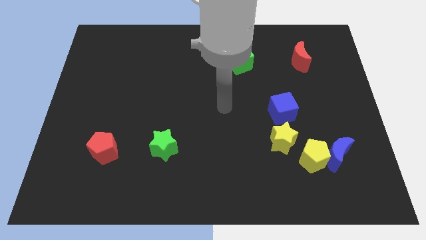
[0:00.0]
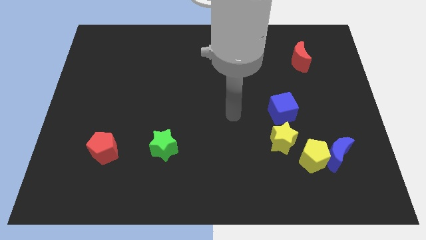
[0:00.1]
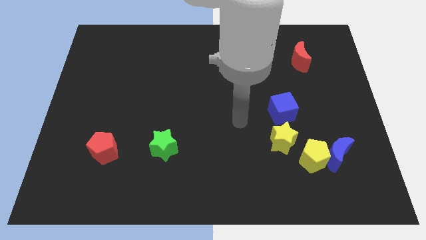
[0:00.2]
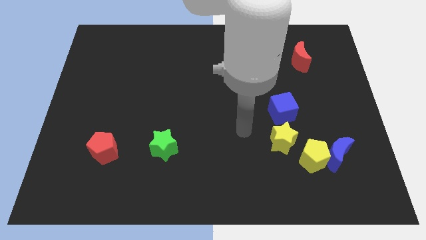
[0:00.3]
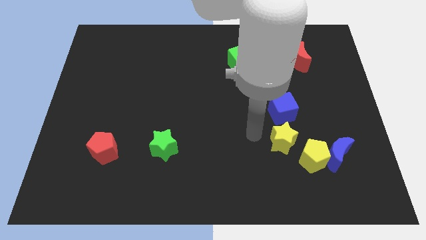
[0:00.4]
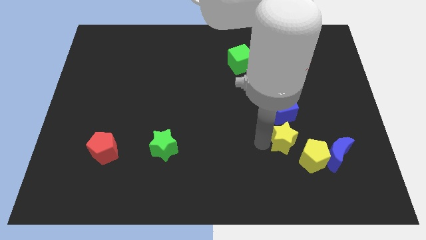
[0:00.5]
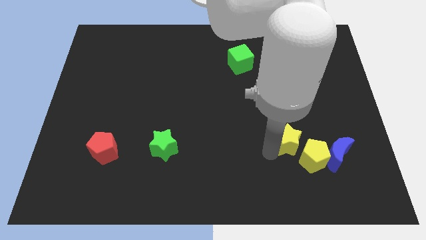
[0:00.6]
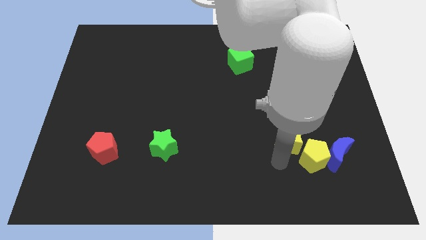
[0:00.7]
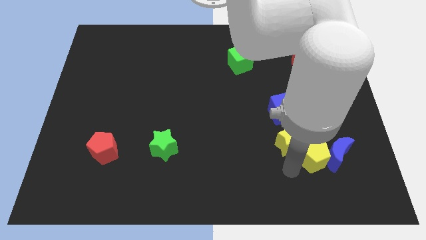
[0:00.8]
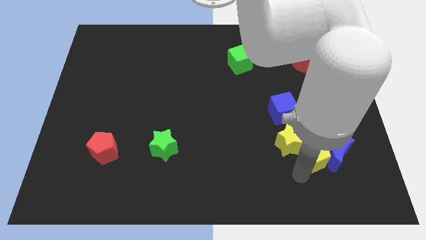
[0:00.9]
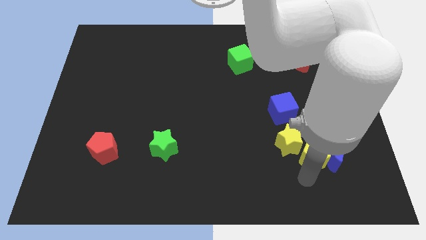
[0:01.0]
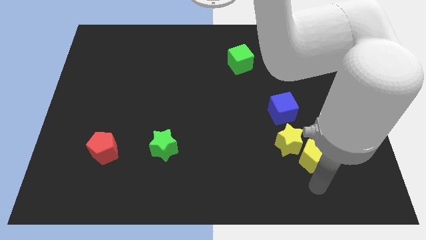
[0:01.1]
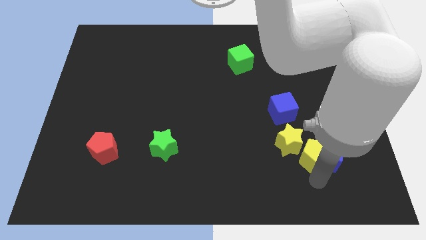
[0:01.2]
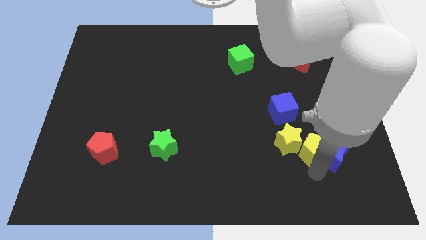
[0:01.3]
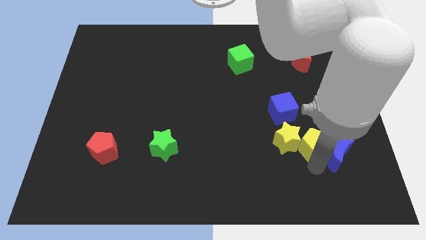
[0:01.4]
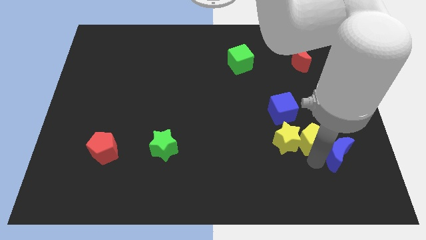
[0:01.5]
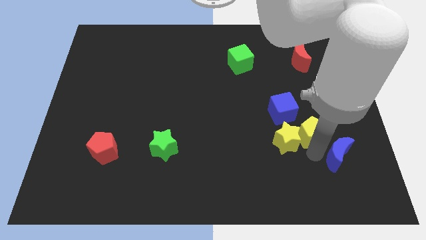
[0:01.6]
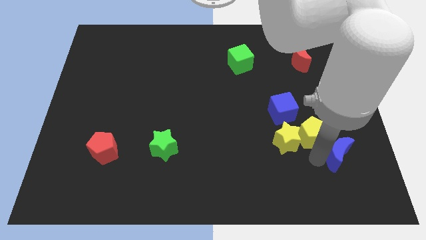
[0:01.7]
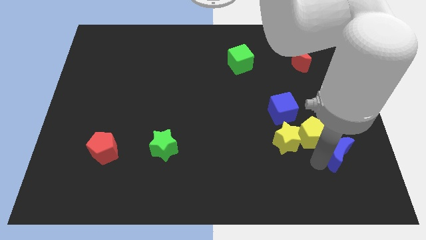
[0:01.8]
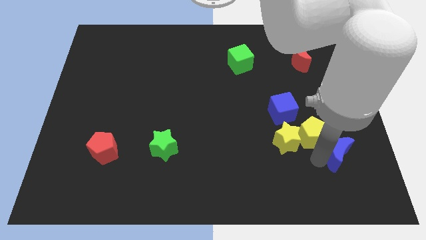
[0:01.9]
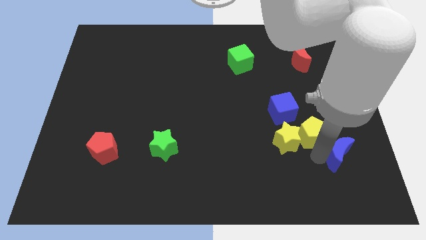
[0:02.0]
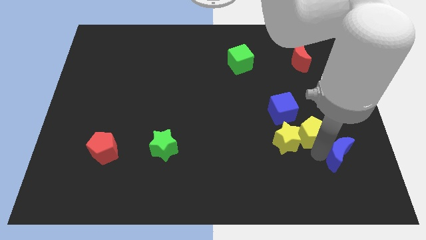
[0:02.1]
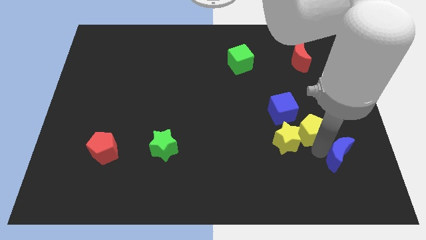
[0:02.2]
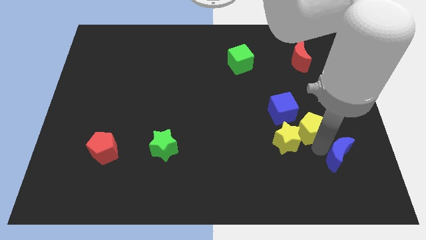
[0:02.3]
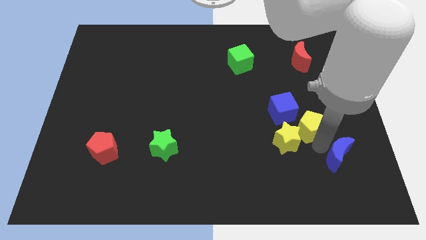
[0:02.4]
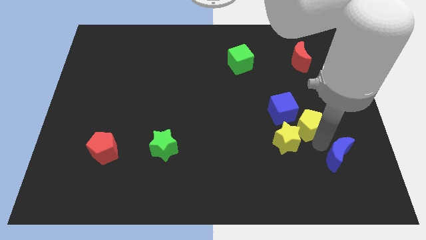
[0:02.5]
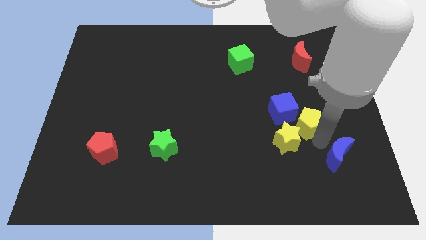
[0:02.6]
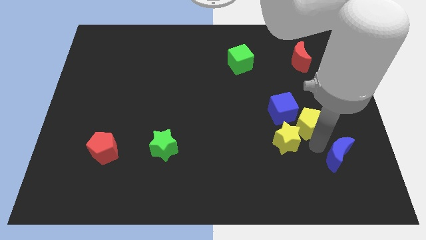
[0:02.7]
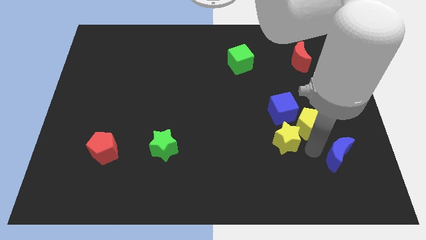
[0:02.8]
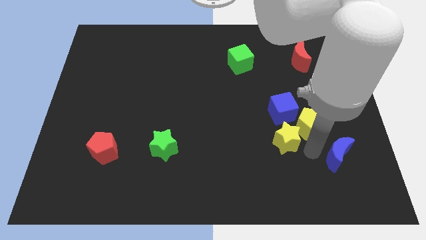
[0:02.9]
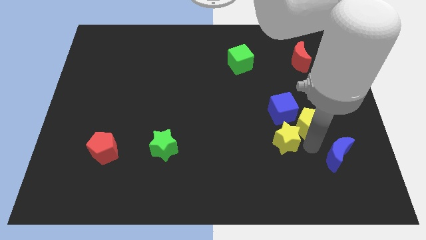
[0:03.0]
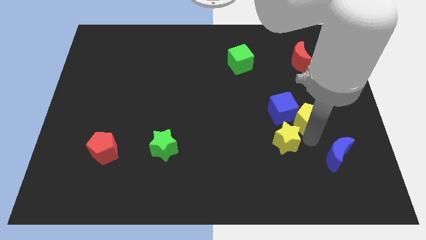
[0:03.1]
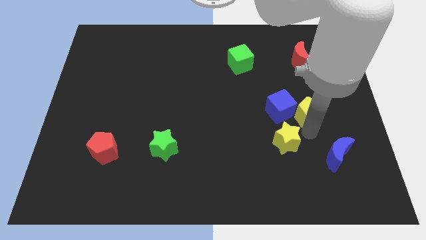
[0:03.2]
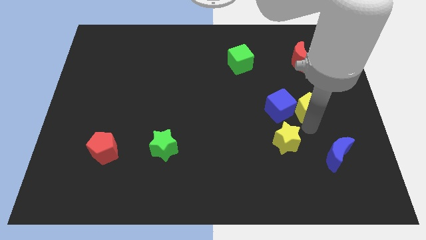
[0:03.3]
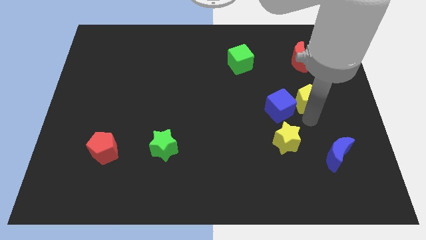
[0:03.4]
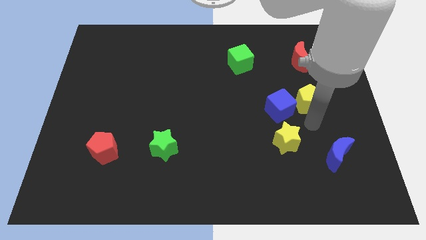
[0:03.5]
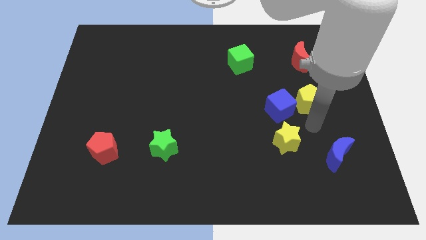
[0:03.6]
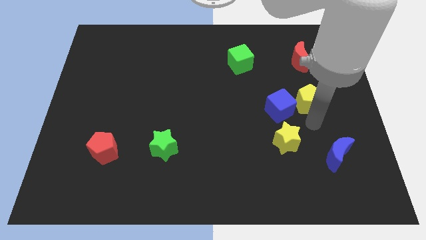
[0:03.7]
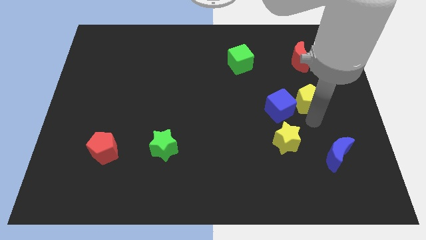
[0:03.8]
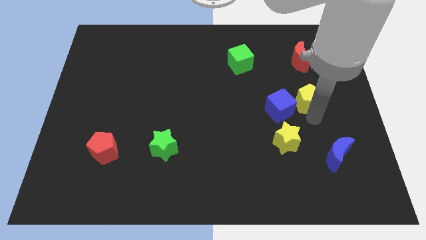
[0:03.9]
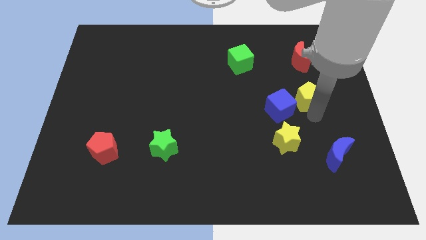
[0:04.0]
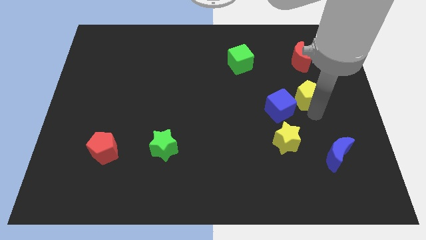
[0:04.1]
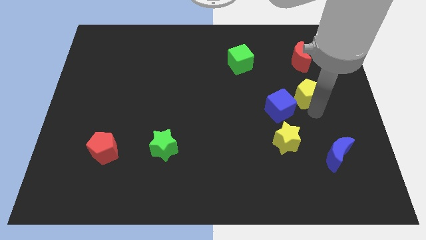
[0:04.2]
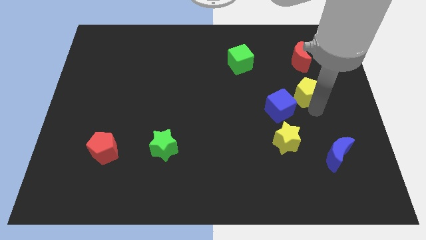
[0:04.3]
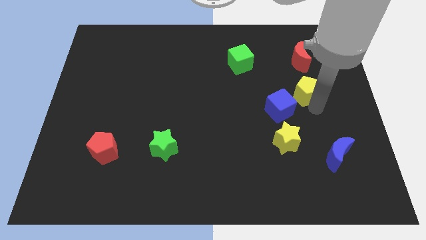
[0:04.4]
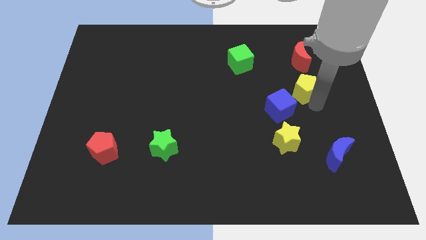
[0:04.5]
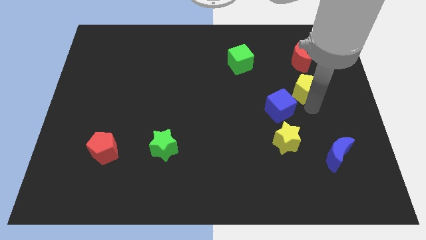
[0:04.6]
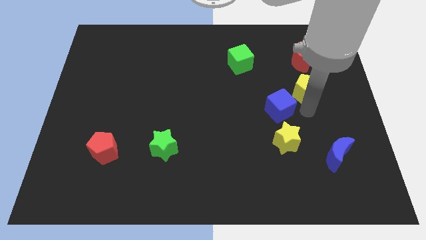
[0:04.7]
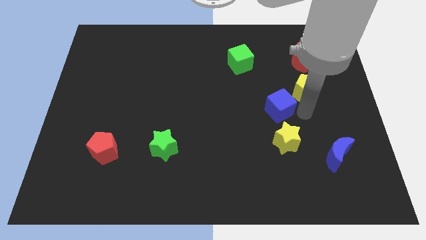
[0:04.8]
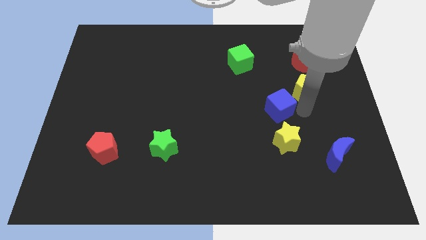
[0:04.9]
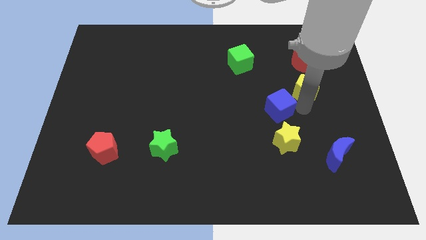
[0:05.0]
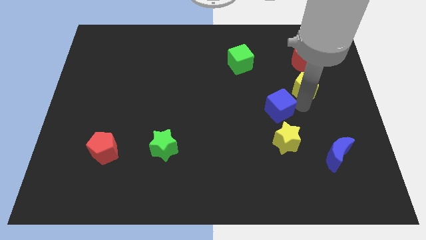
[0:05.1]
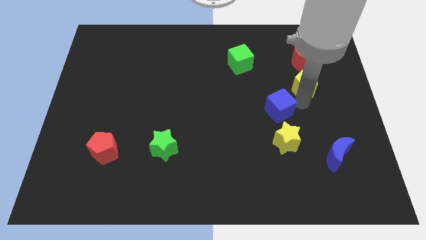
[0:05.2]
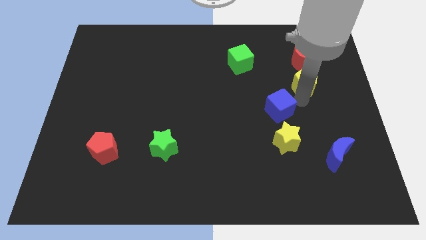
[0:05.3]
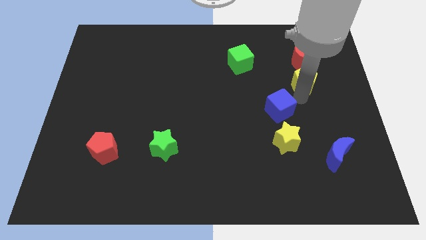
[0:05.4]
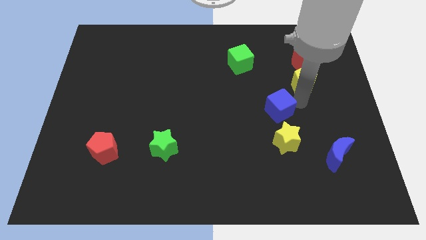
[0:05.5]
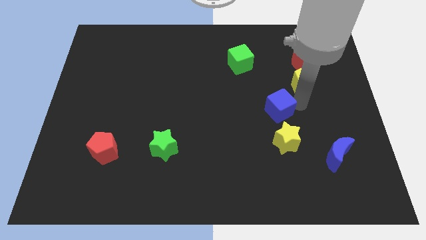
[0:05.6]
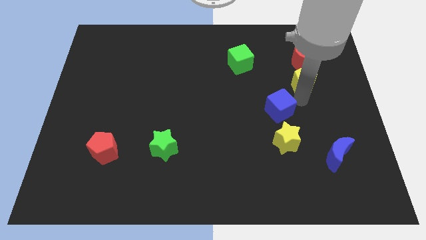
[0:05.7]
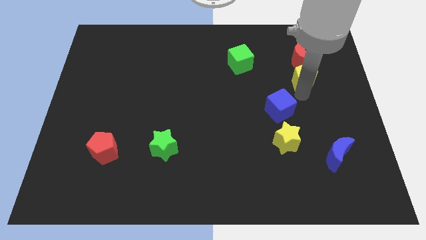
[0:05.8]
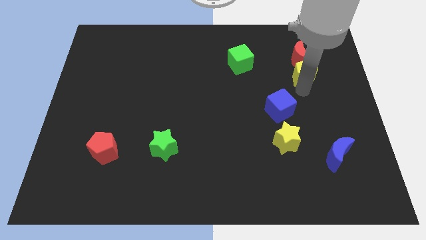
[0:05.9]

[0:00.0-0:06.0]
slide the yellow pentagon to the red moon

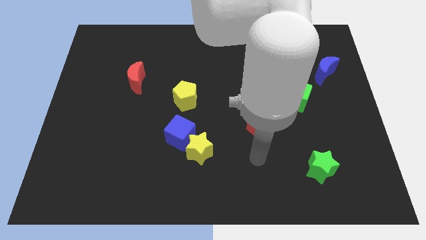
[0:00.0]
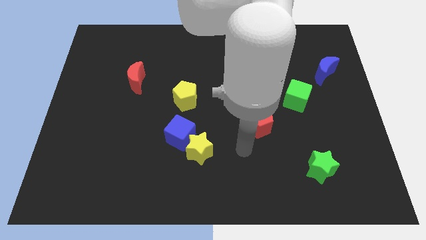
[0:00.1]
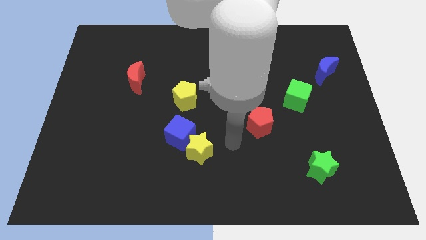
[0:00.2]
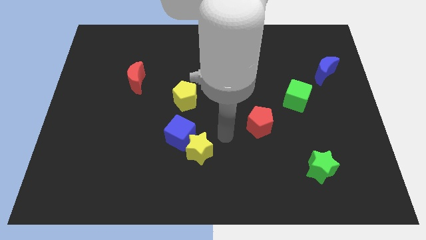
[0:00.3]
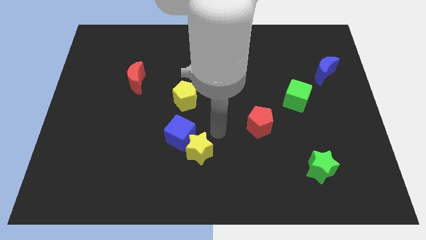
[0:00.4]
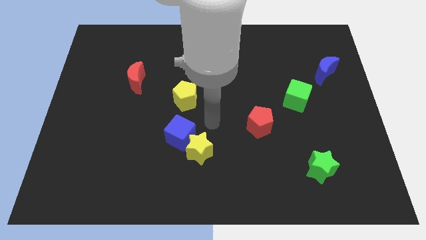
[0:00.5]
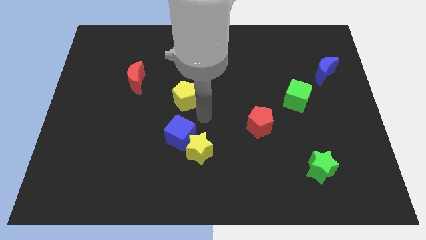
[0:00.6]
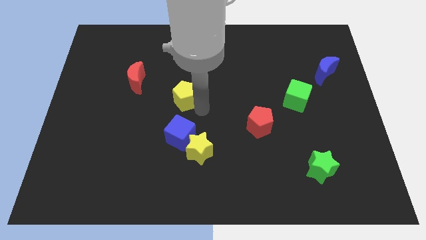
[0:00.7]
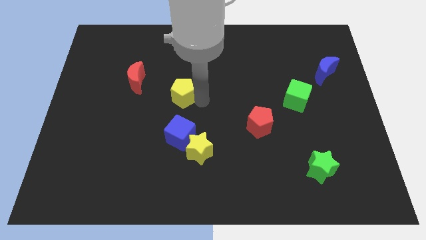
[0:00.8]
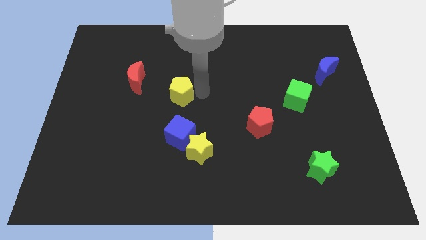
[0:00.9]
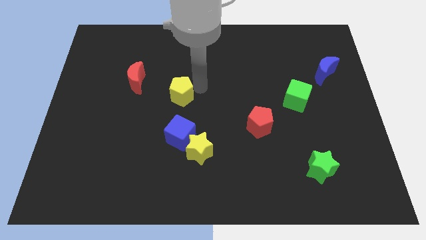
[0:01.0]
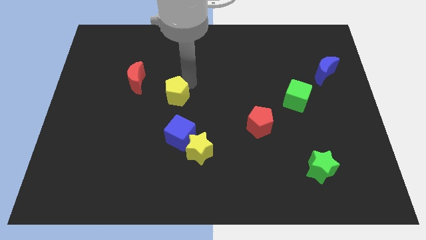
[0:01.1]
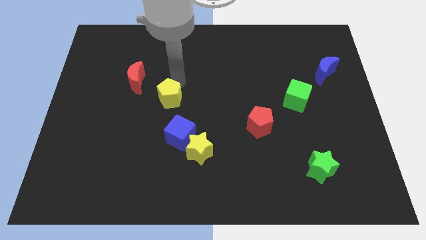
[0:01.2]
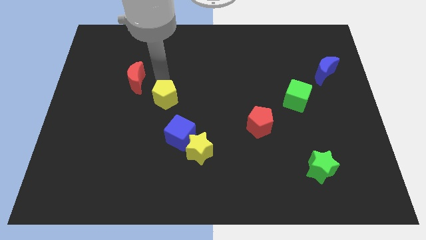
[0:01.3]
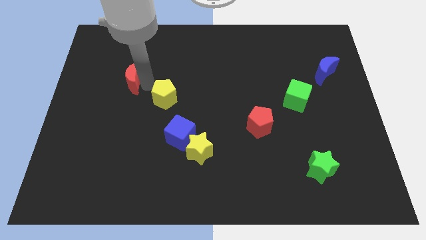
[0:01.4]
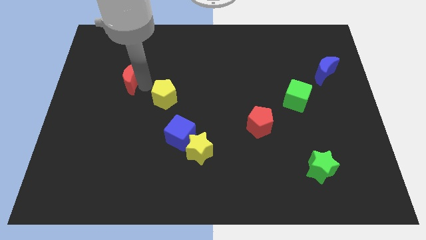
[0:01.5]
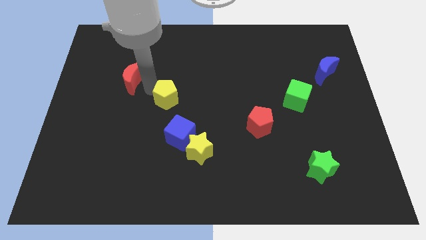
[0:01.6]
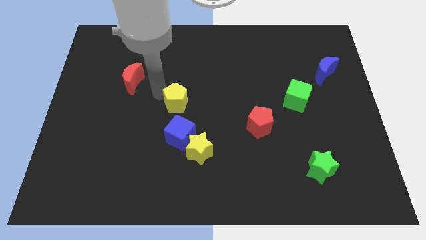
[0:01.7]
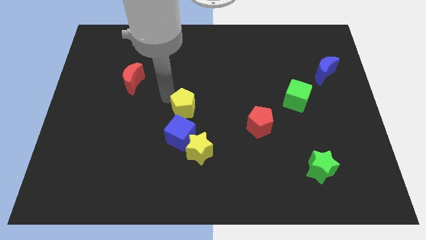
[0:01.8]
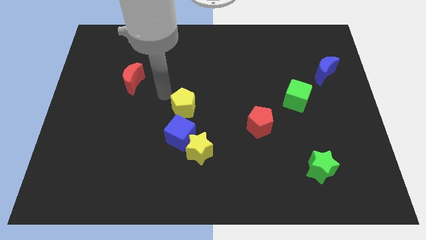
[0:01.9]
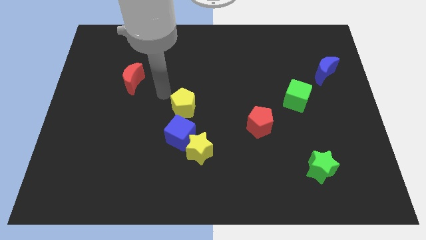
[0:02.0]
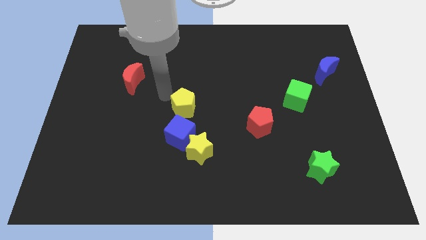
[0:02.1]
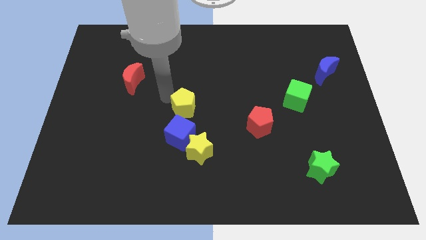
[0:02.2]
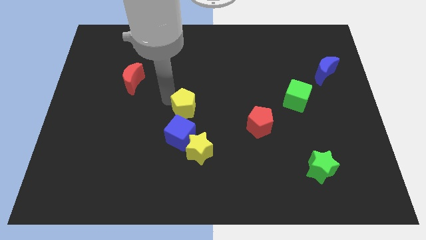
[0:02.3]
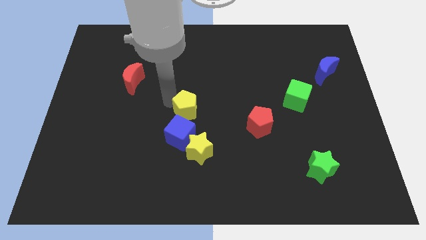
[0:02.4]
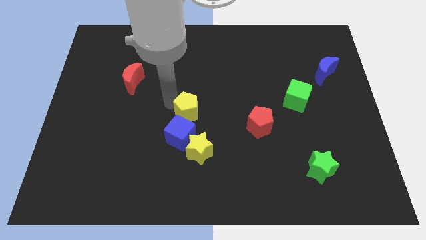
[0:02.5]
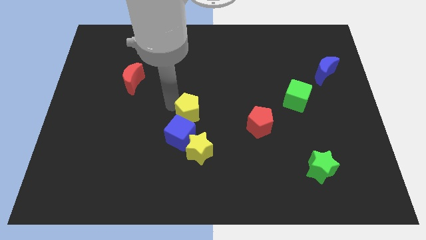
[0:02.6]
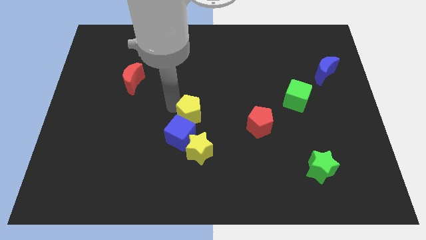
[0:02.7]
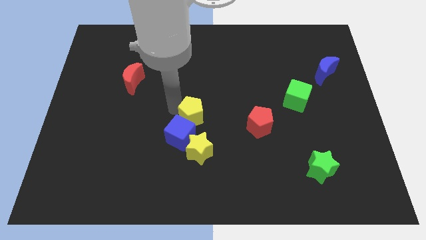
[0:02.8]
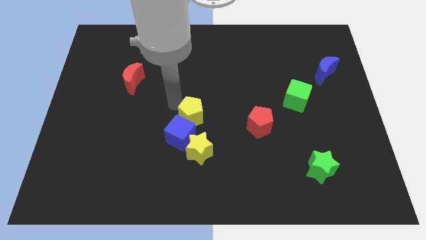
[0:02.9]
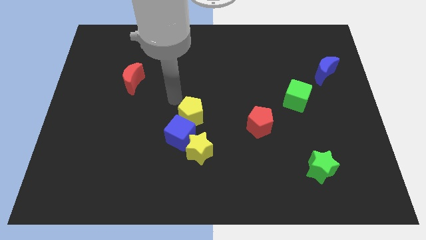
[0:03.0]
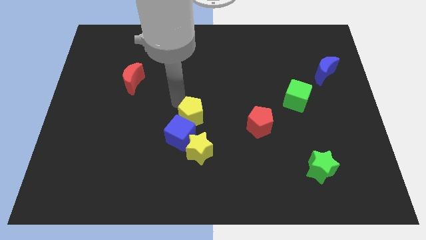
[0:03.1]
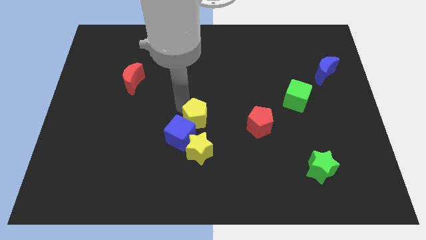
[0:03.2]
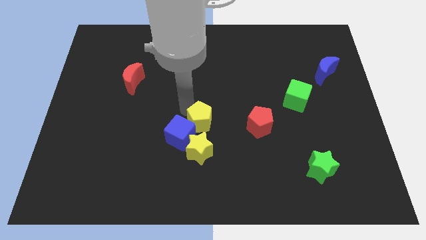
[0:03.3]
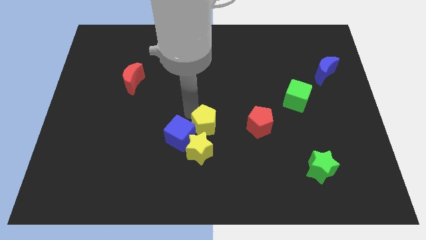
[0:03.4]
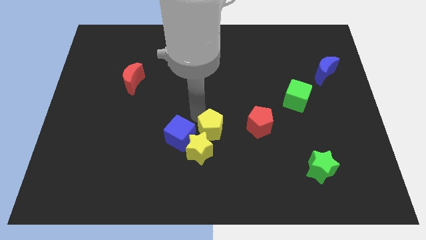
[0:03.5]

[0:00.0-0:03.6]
slide the yellow pentagon next to the yellow star
